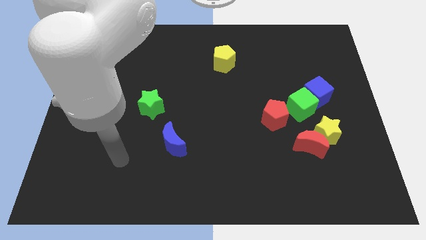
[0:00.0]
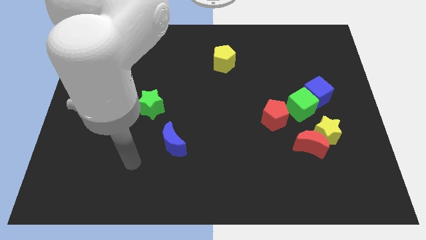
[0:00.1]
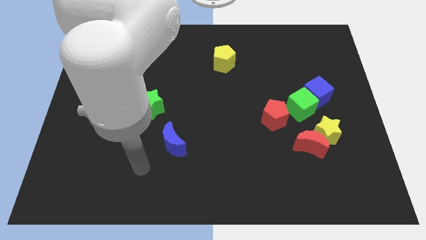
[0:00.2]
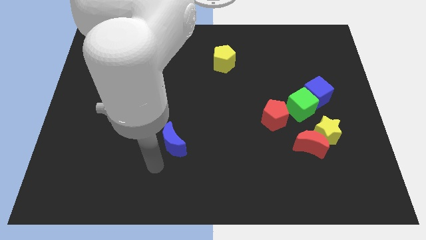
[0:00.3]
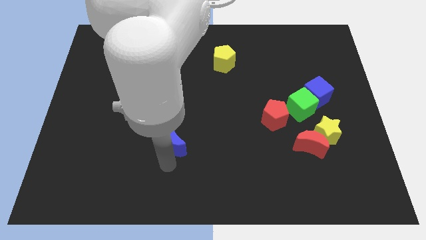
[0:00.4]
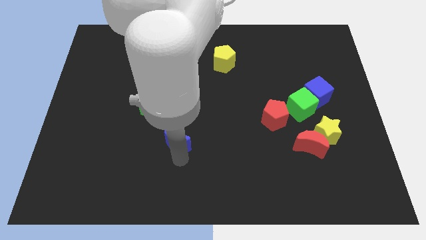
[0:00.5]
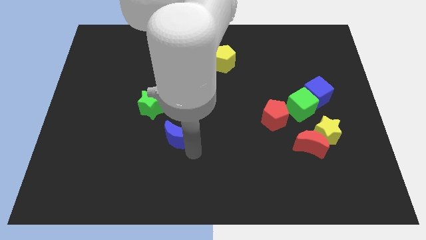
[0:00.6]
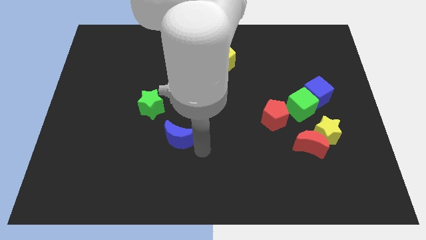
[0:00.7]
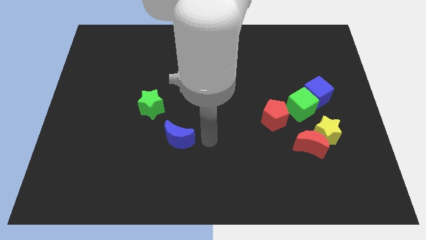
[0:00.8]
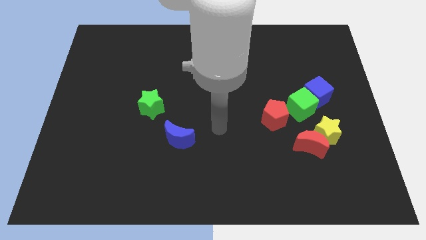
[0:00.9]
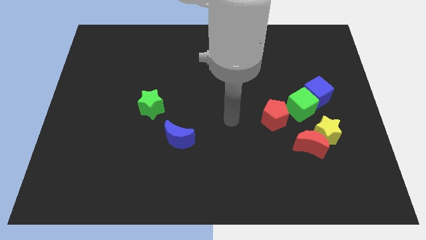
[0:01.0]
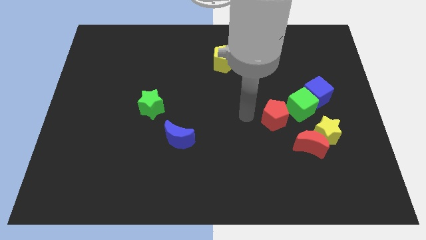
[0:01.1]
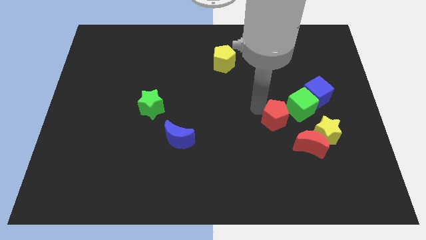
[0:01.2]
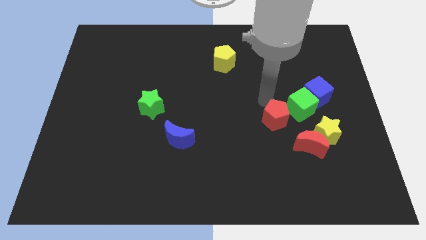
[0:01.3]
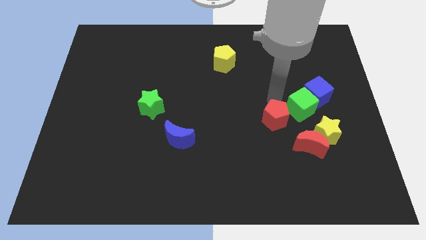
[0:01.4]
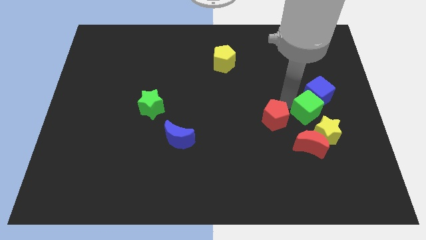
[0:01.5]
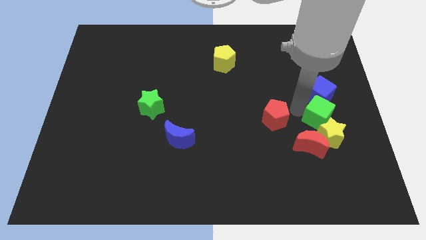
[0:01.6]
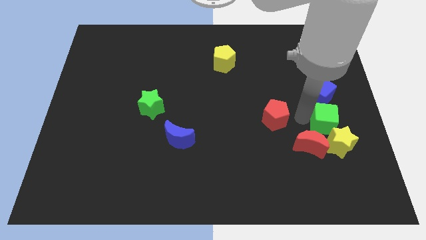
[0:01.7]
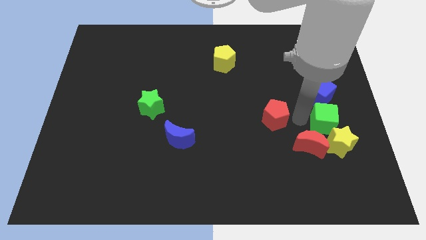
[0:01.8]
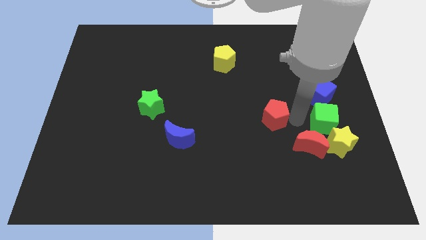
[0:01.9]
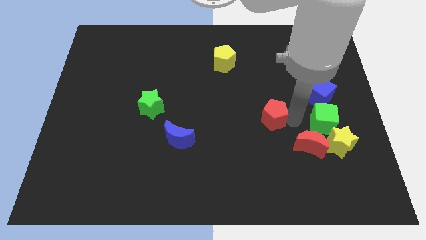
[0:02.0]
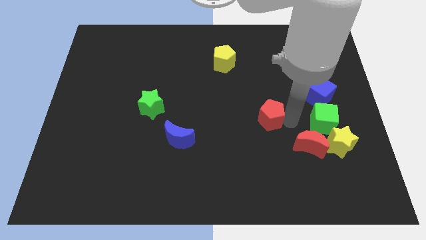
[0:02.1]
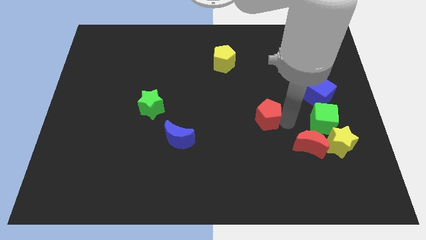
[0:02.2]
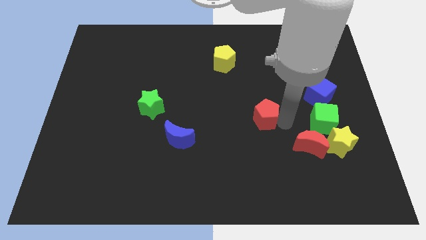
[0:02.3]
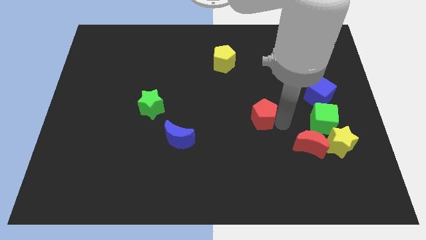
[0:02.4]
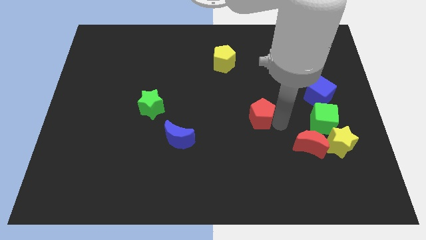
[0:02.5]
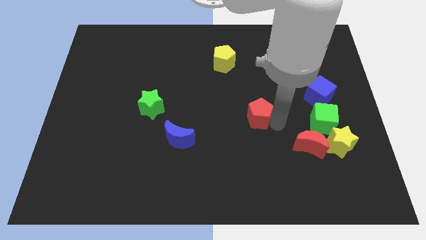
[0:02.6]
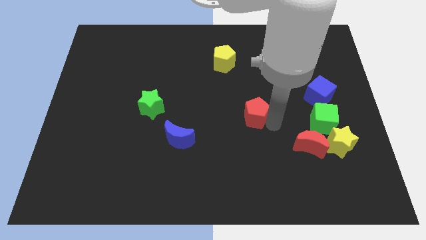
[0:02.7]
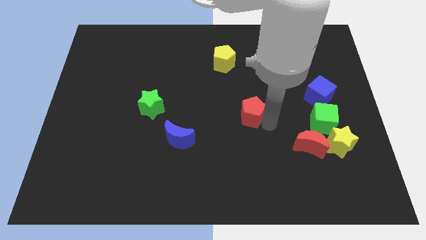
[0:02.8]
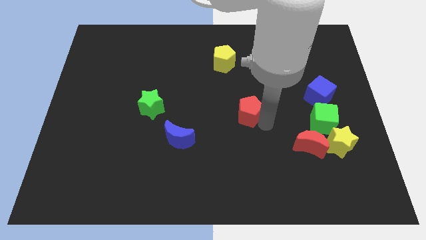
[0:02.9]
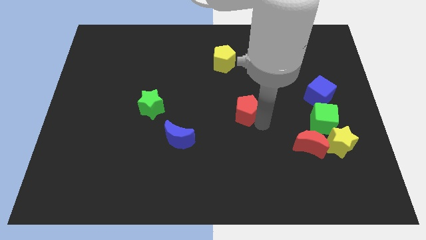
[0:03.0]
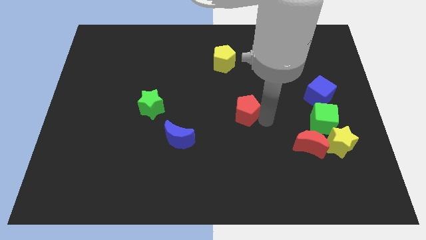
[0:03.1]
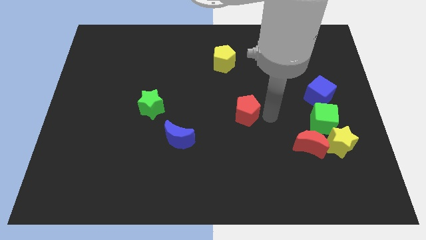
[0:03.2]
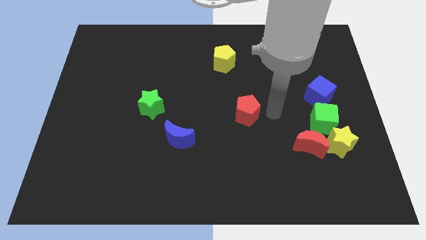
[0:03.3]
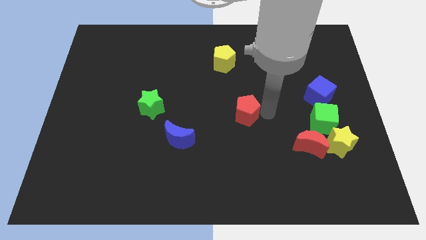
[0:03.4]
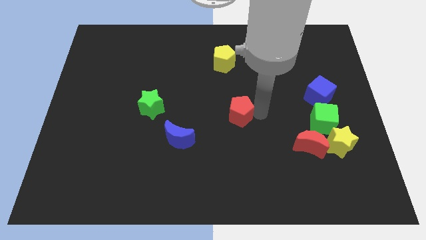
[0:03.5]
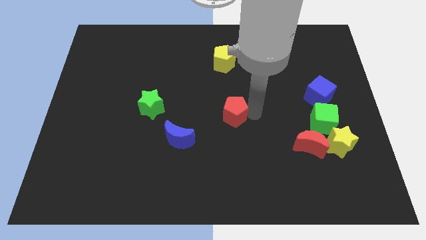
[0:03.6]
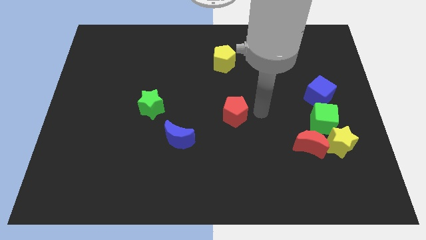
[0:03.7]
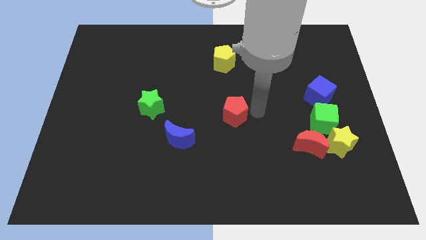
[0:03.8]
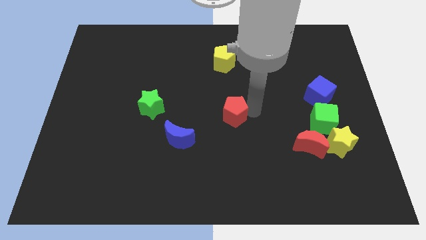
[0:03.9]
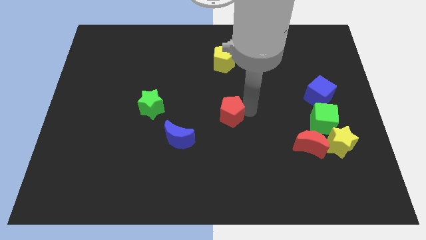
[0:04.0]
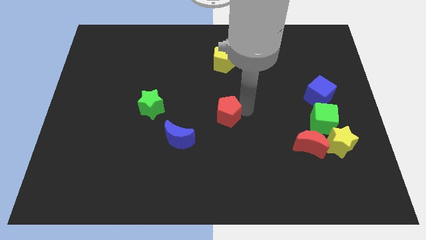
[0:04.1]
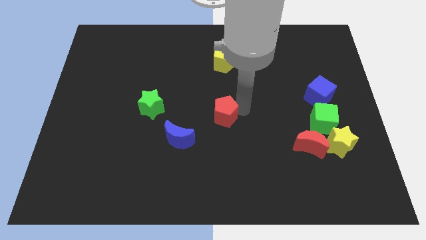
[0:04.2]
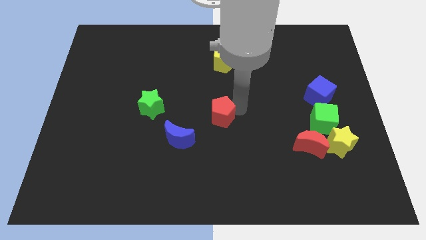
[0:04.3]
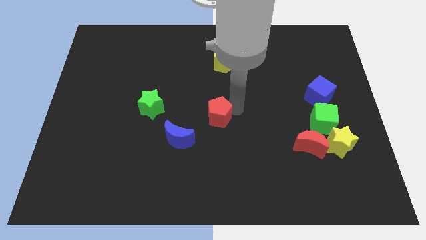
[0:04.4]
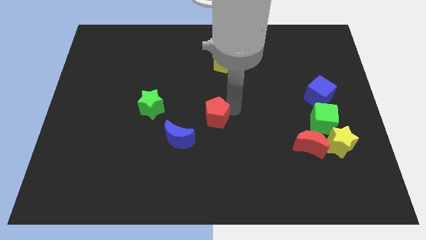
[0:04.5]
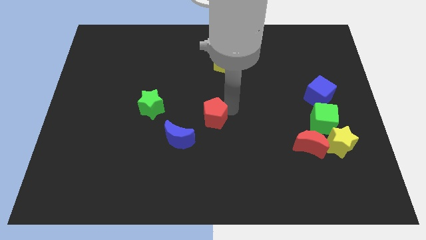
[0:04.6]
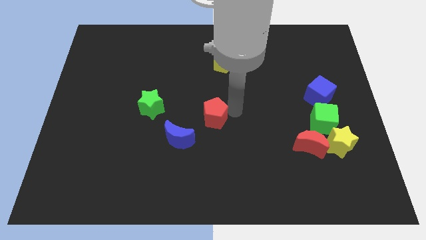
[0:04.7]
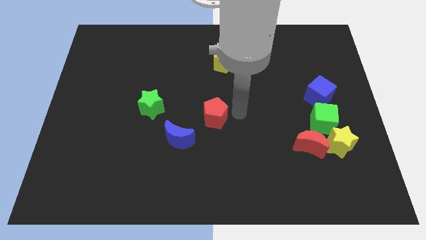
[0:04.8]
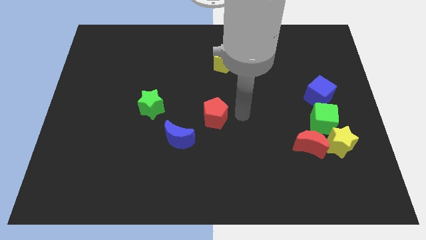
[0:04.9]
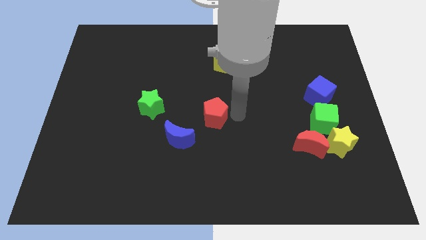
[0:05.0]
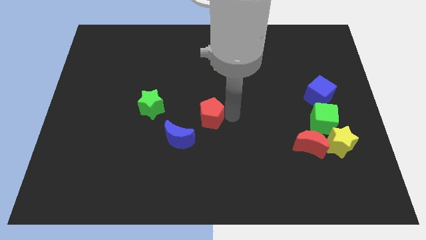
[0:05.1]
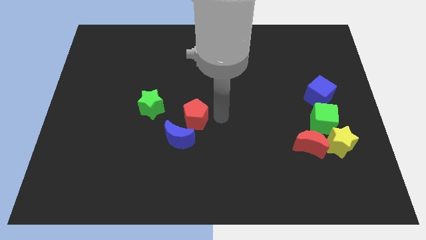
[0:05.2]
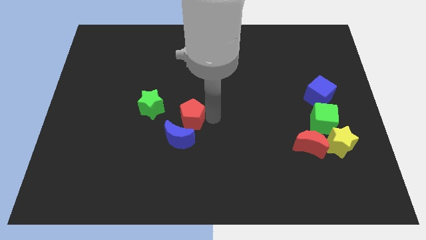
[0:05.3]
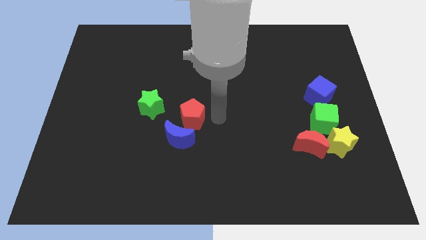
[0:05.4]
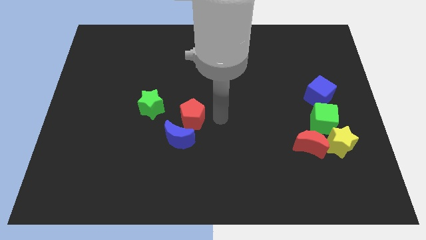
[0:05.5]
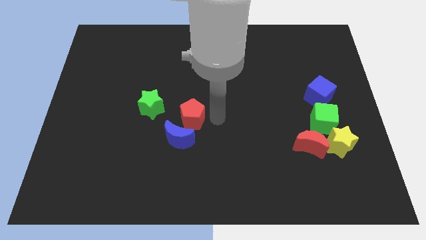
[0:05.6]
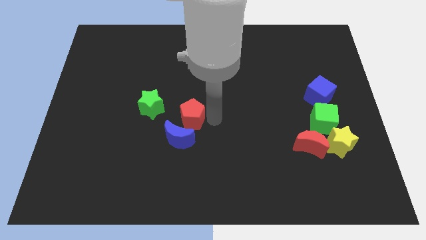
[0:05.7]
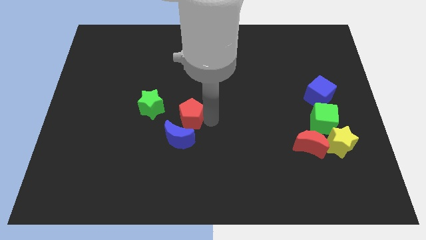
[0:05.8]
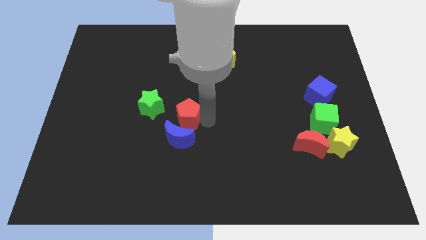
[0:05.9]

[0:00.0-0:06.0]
slide the red pentagon left

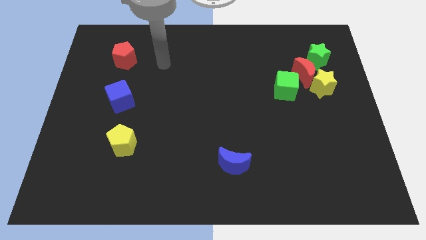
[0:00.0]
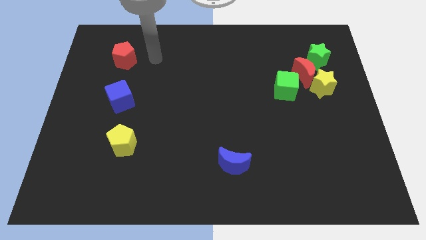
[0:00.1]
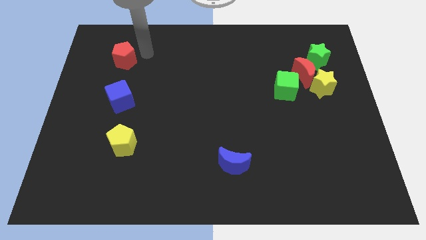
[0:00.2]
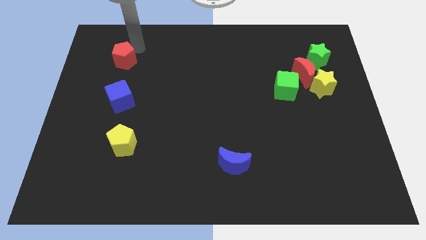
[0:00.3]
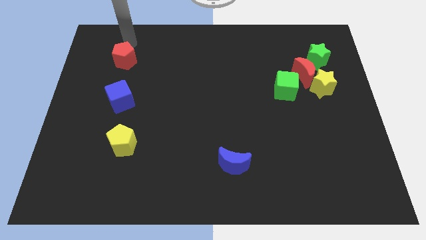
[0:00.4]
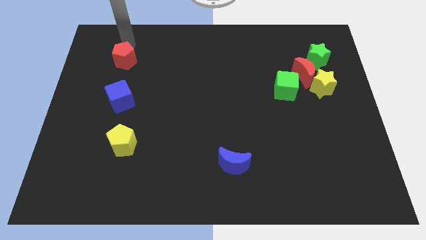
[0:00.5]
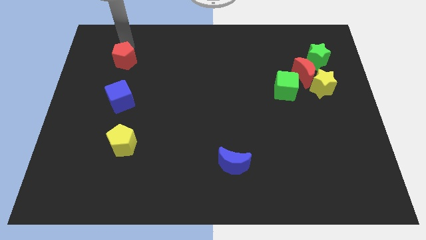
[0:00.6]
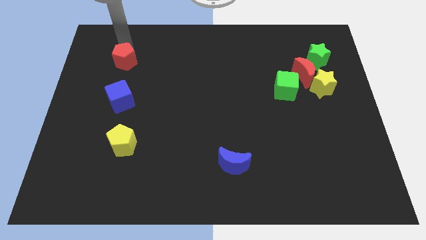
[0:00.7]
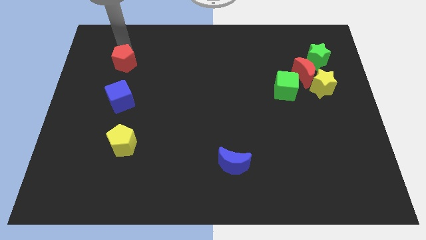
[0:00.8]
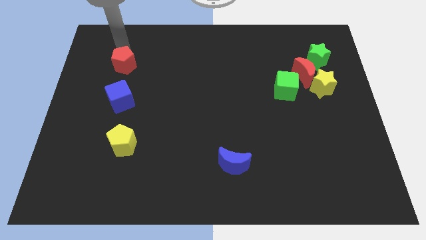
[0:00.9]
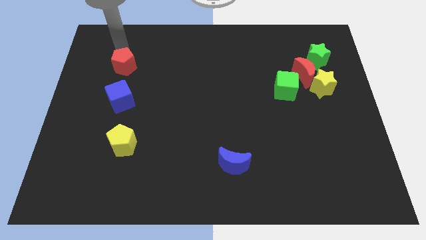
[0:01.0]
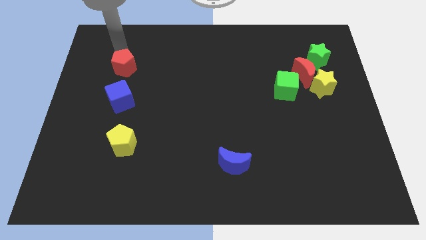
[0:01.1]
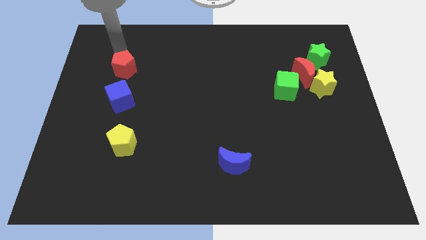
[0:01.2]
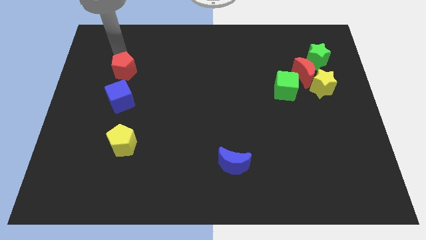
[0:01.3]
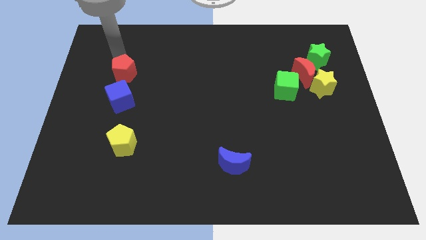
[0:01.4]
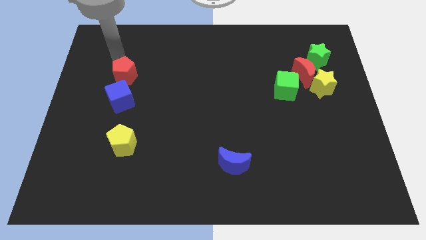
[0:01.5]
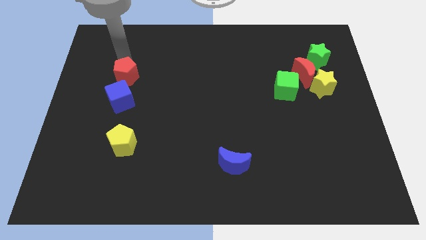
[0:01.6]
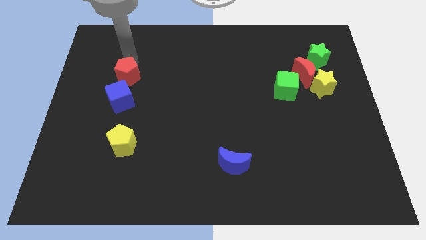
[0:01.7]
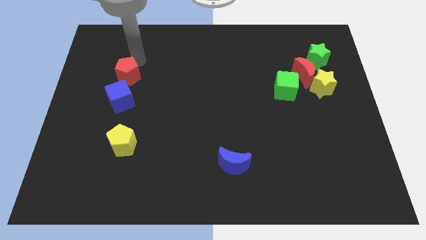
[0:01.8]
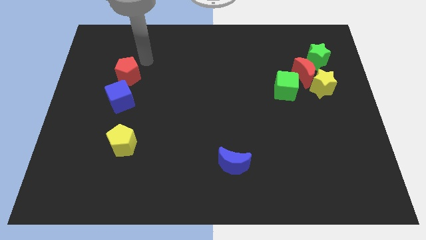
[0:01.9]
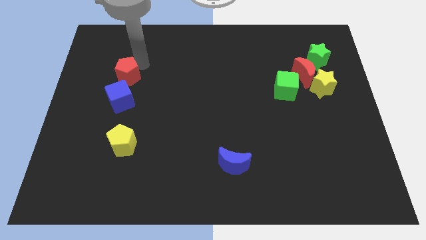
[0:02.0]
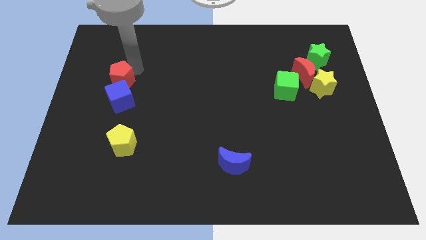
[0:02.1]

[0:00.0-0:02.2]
push the red pentagon a bit downwards
